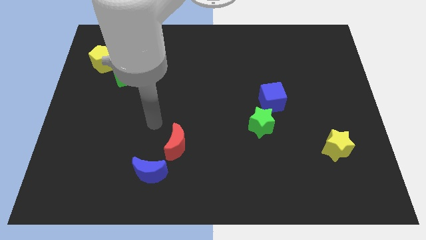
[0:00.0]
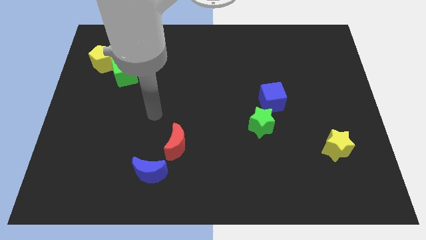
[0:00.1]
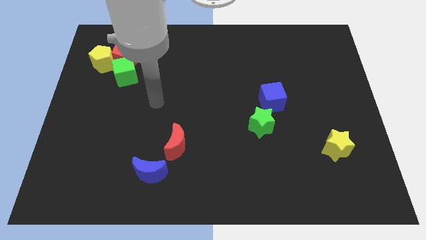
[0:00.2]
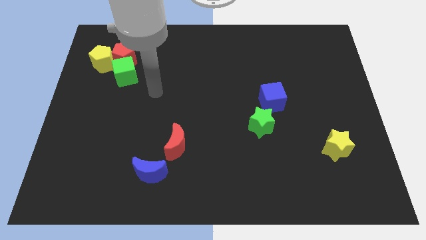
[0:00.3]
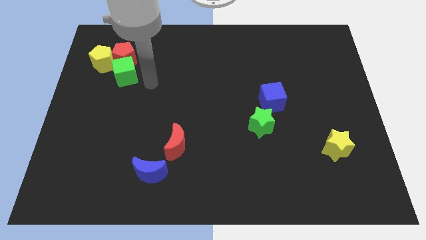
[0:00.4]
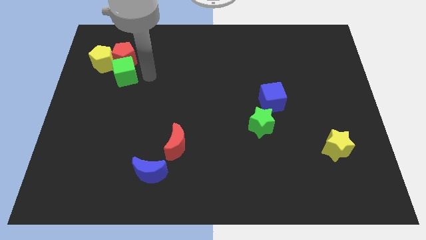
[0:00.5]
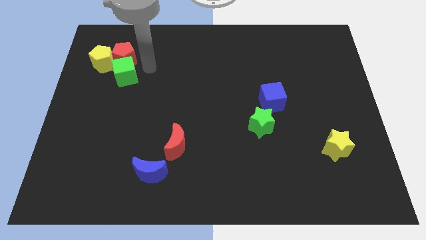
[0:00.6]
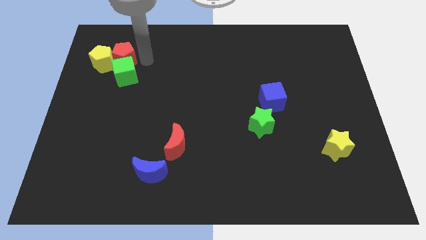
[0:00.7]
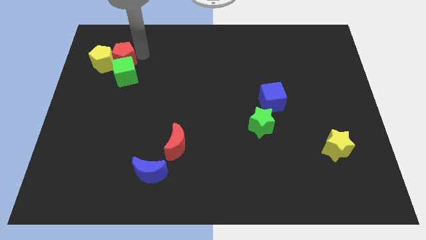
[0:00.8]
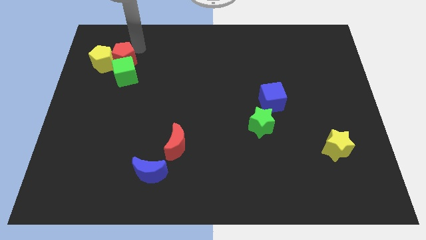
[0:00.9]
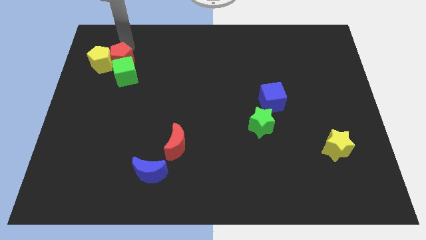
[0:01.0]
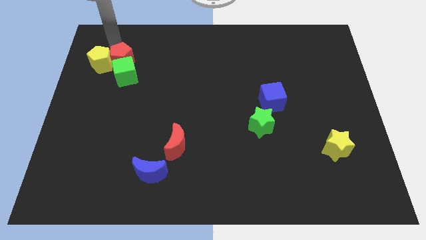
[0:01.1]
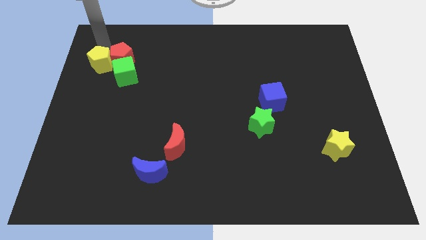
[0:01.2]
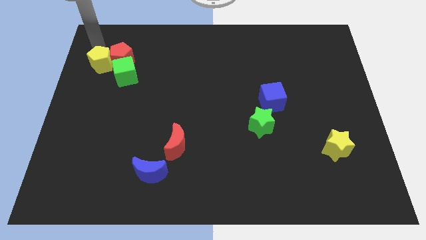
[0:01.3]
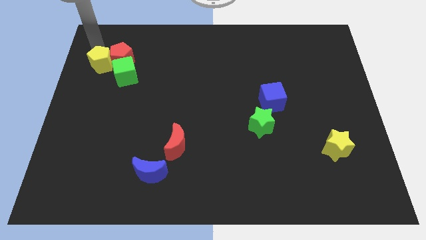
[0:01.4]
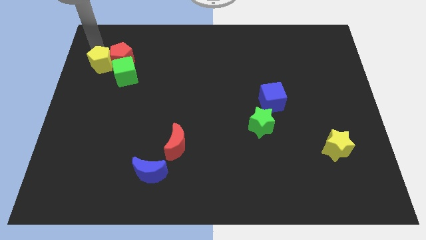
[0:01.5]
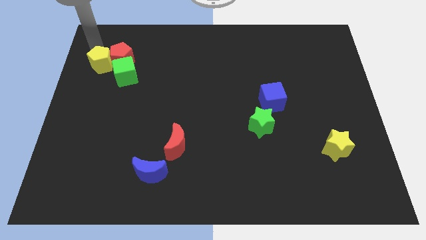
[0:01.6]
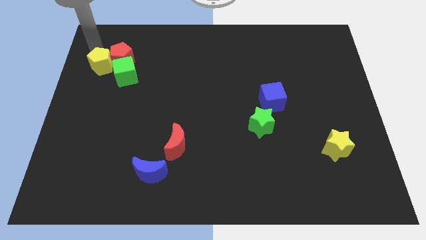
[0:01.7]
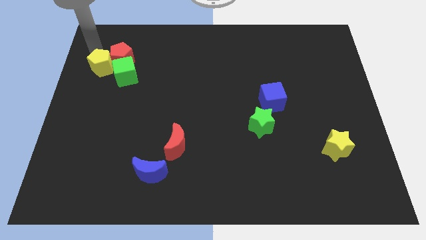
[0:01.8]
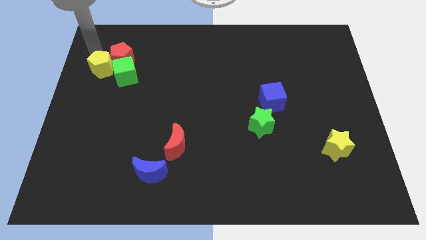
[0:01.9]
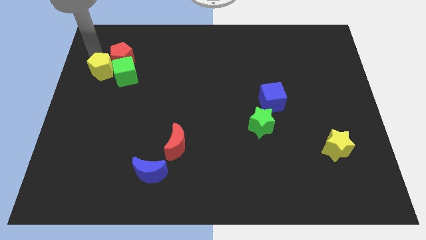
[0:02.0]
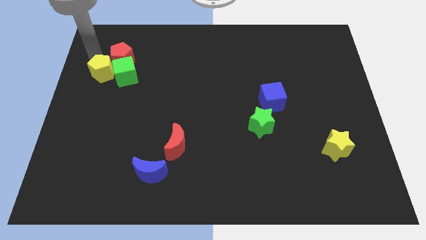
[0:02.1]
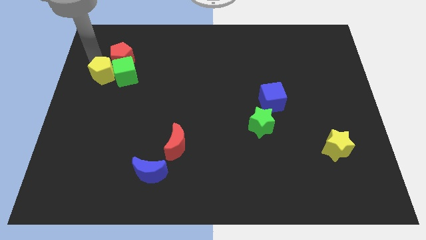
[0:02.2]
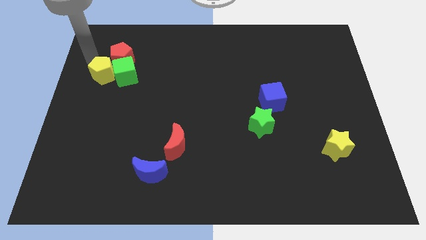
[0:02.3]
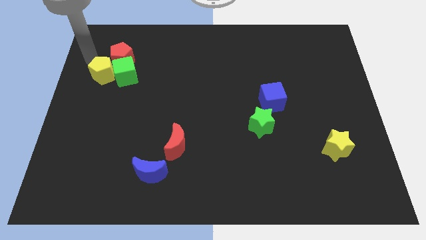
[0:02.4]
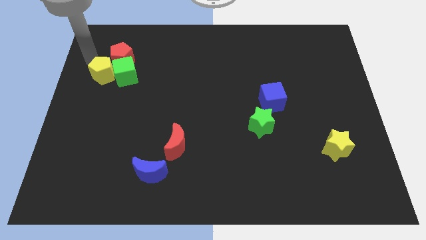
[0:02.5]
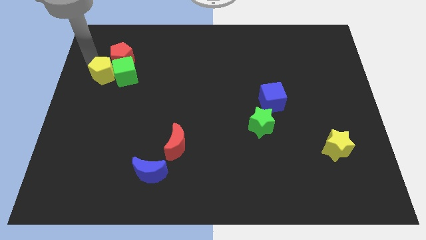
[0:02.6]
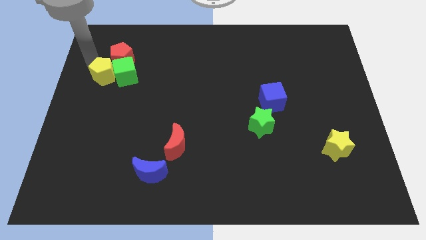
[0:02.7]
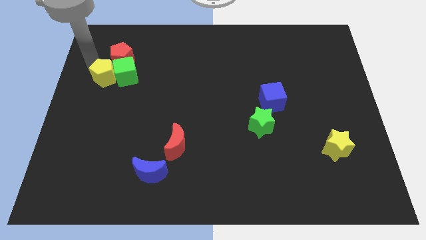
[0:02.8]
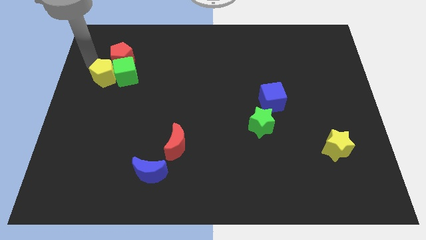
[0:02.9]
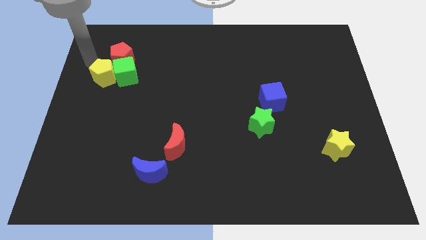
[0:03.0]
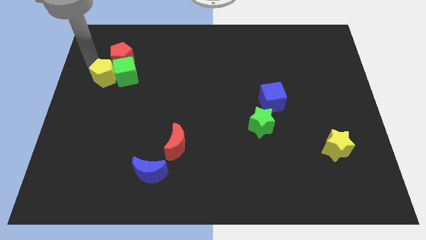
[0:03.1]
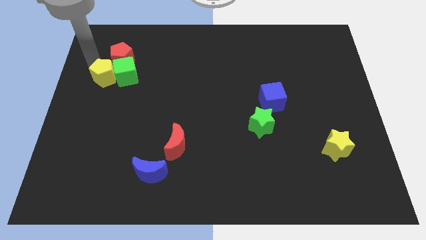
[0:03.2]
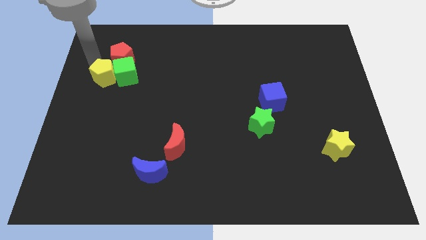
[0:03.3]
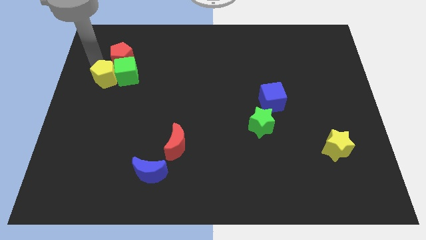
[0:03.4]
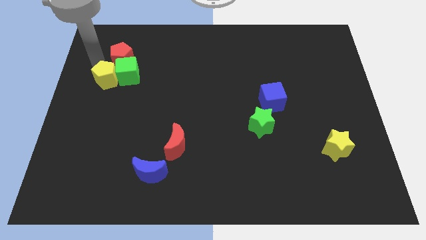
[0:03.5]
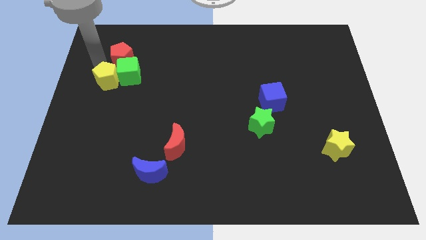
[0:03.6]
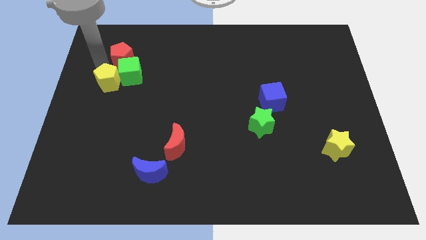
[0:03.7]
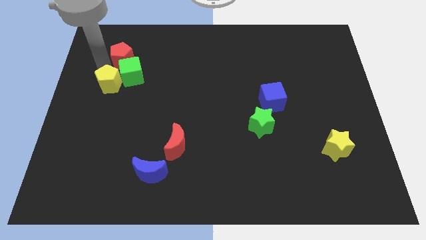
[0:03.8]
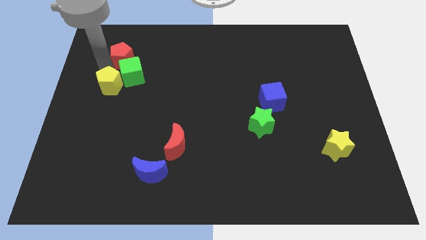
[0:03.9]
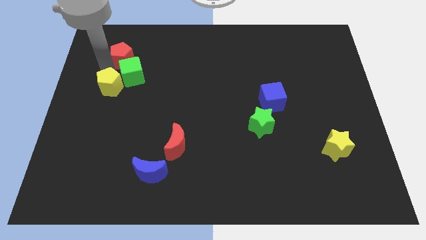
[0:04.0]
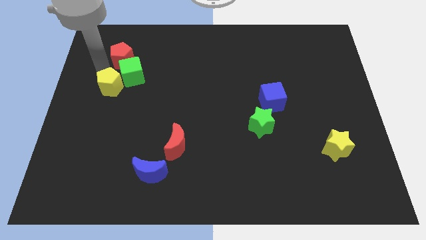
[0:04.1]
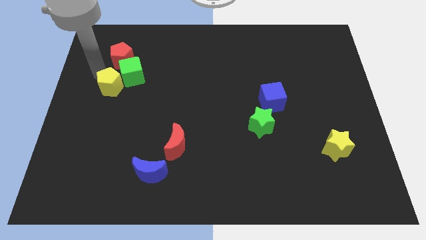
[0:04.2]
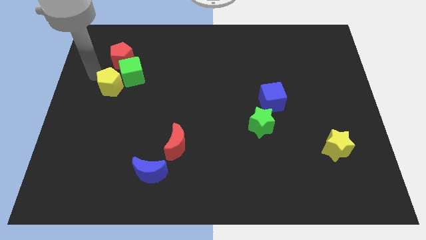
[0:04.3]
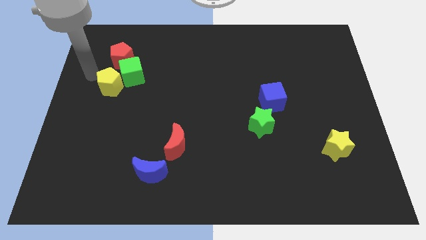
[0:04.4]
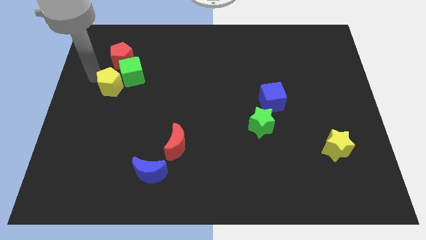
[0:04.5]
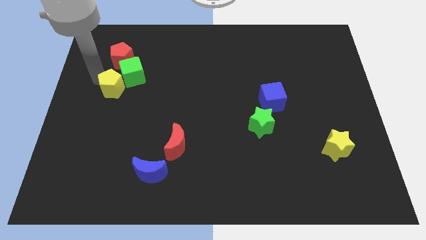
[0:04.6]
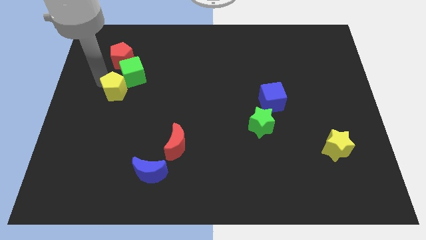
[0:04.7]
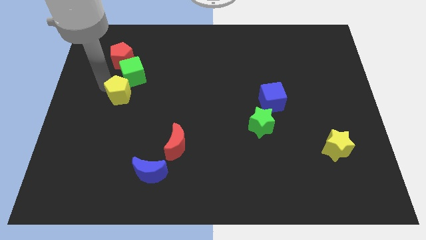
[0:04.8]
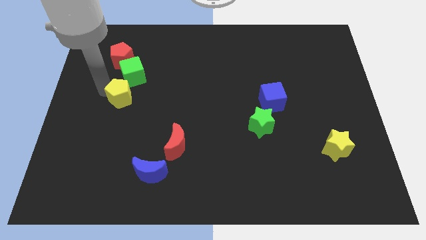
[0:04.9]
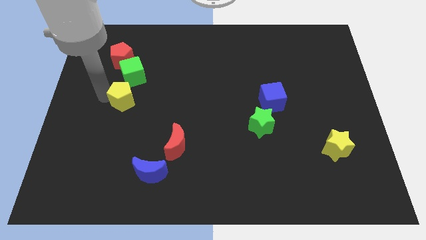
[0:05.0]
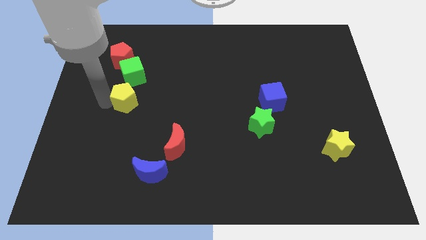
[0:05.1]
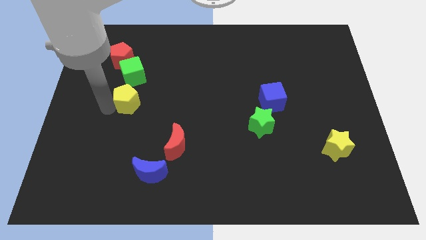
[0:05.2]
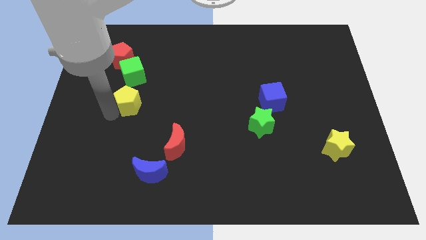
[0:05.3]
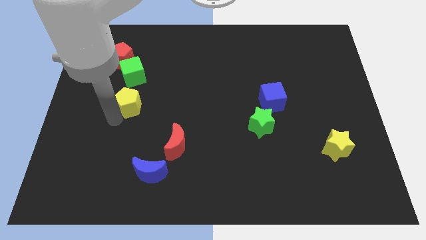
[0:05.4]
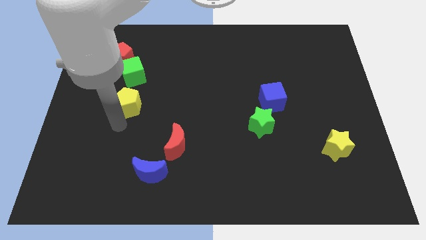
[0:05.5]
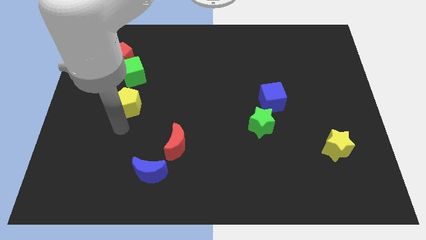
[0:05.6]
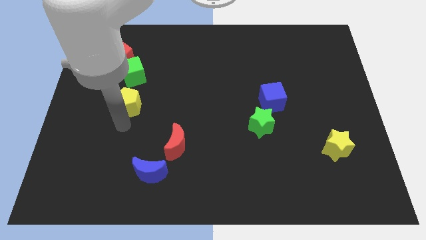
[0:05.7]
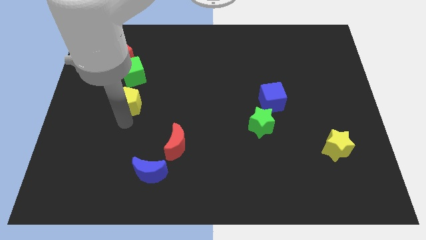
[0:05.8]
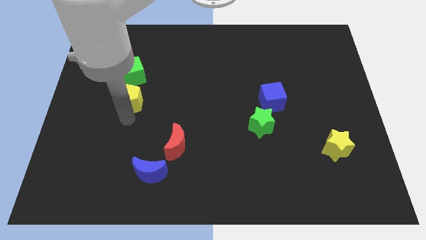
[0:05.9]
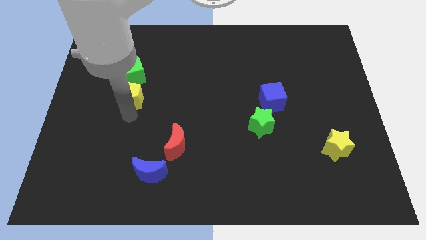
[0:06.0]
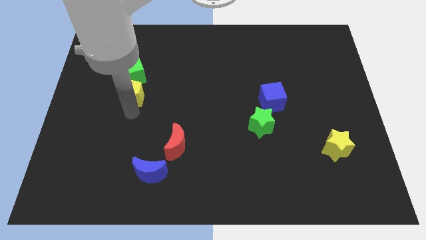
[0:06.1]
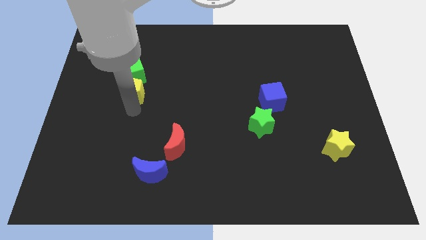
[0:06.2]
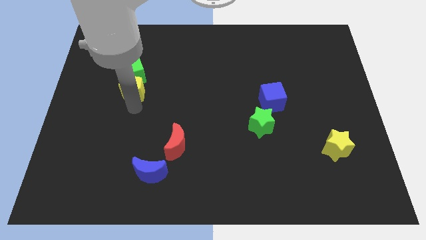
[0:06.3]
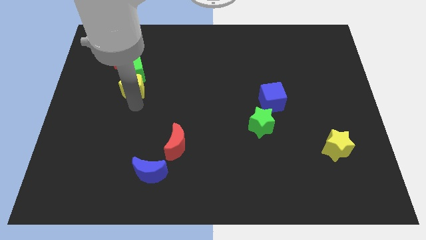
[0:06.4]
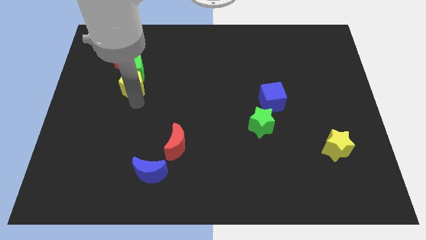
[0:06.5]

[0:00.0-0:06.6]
move the yellow pentagon to the bottom right of the red pentagon
